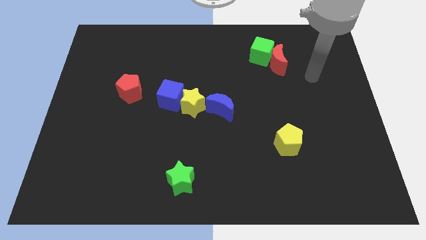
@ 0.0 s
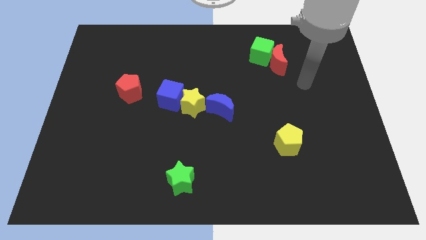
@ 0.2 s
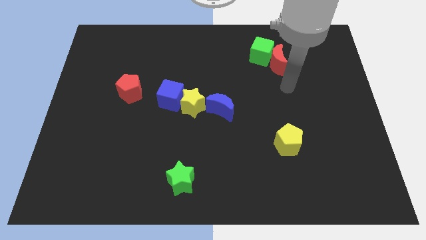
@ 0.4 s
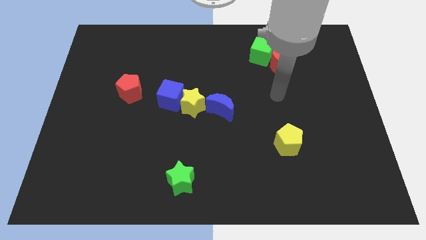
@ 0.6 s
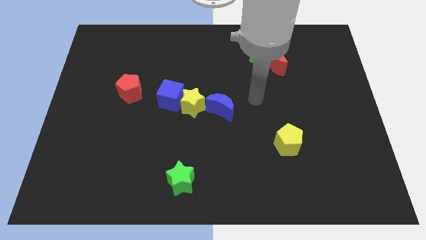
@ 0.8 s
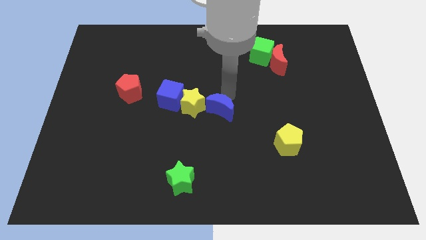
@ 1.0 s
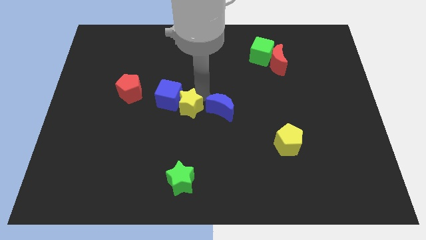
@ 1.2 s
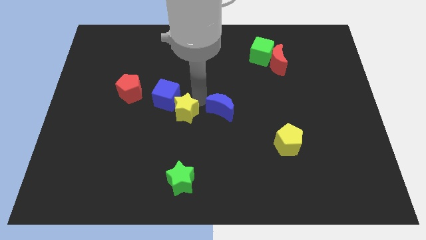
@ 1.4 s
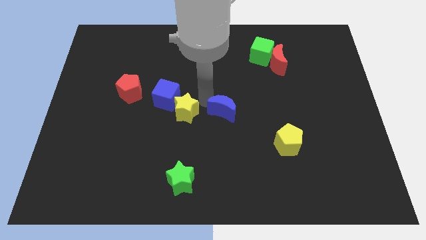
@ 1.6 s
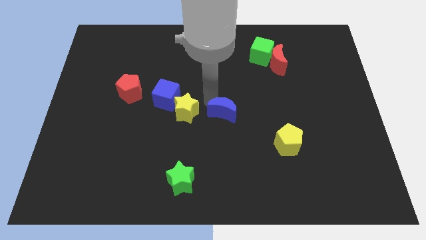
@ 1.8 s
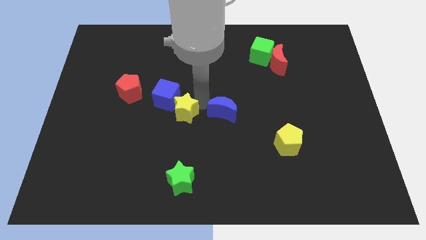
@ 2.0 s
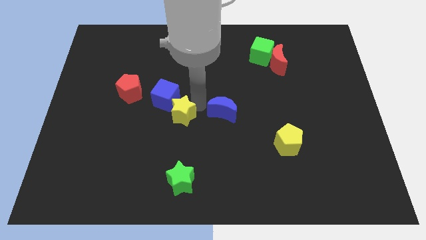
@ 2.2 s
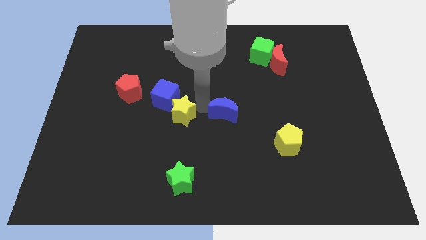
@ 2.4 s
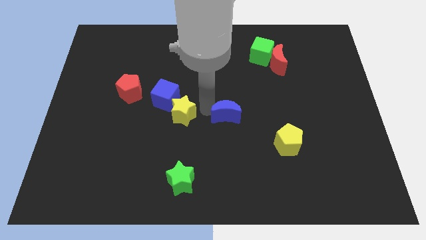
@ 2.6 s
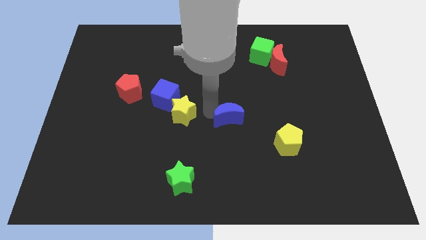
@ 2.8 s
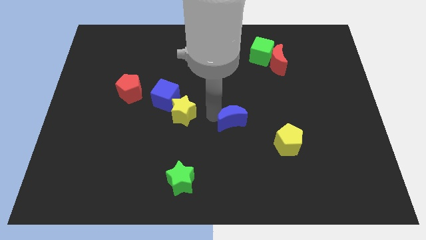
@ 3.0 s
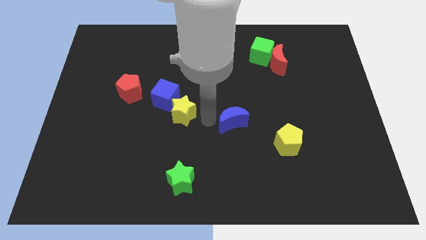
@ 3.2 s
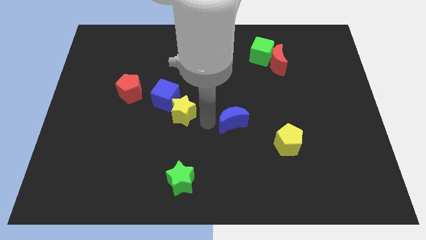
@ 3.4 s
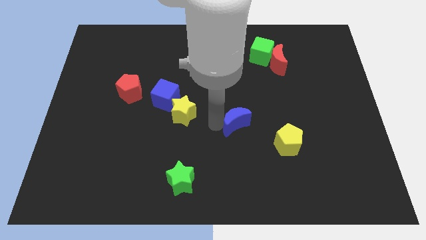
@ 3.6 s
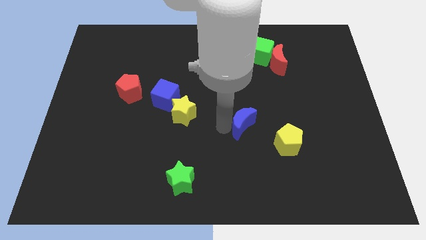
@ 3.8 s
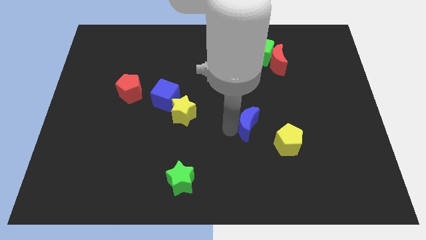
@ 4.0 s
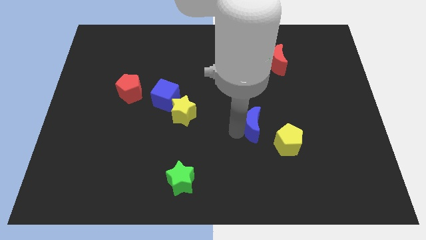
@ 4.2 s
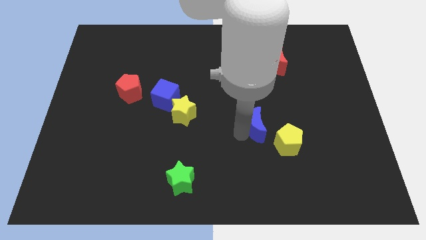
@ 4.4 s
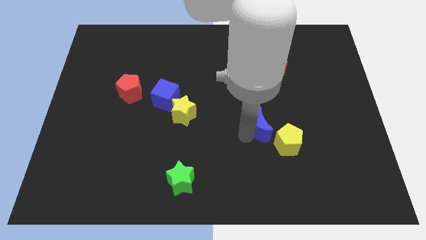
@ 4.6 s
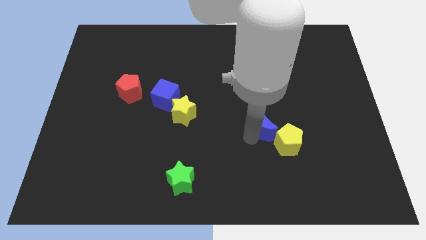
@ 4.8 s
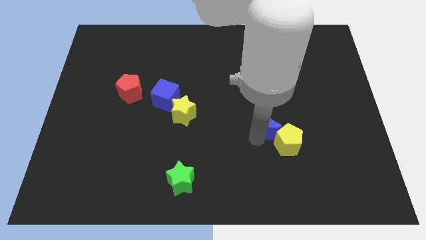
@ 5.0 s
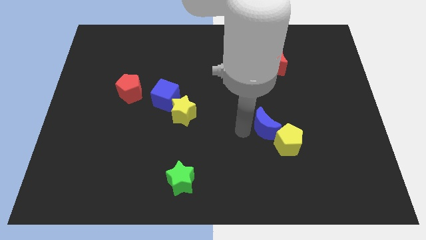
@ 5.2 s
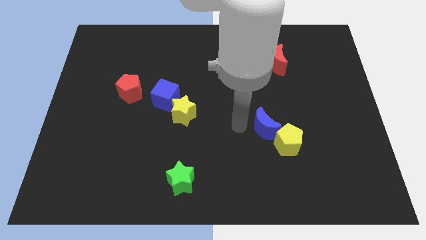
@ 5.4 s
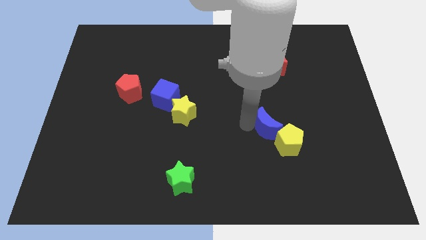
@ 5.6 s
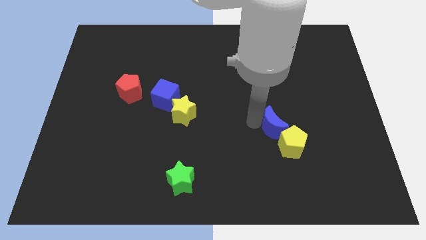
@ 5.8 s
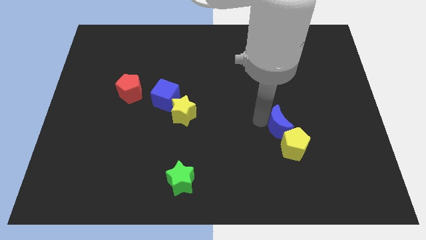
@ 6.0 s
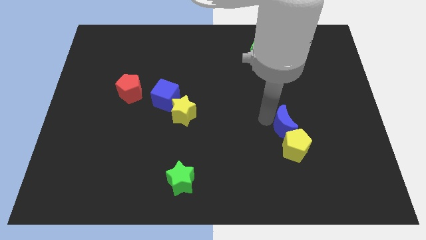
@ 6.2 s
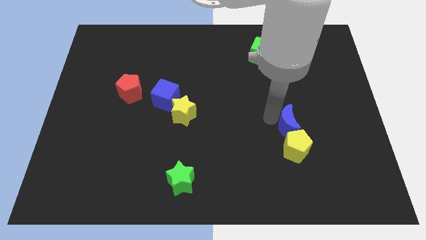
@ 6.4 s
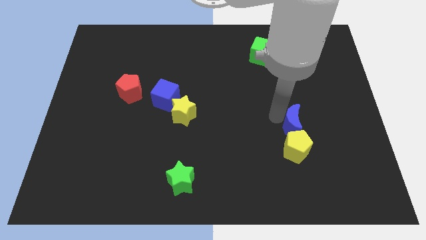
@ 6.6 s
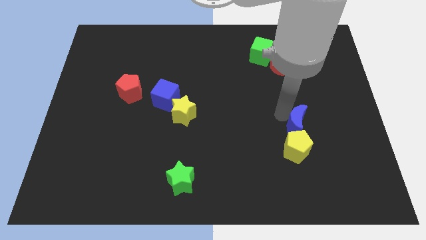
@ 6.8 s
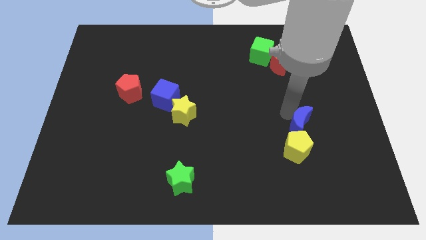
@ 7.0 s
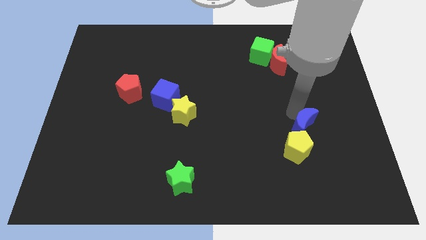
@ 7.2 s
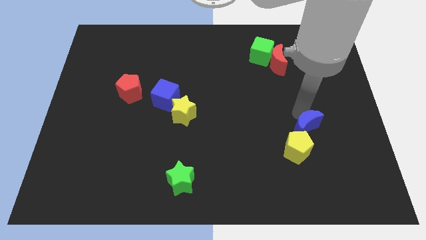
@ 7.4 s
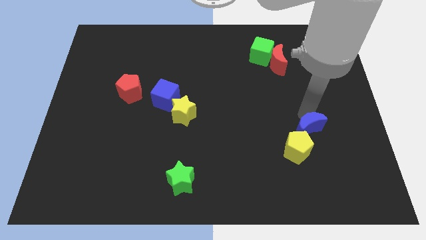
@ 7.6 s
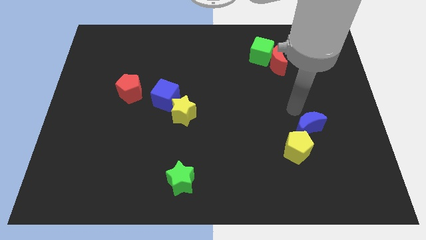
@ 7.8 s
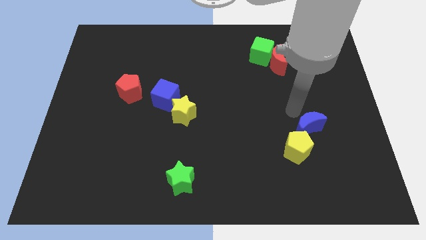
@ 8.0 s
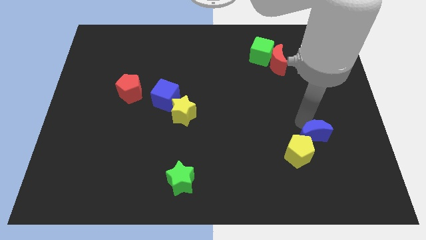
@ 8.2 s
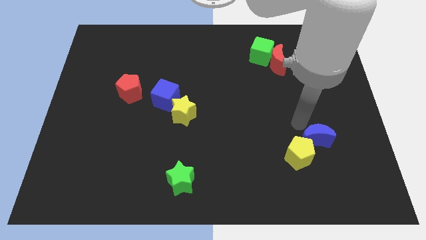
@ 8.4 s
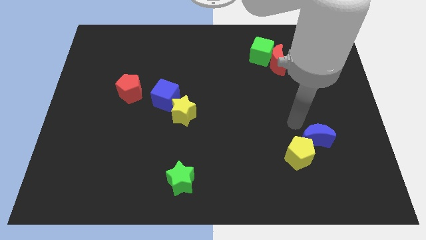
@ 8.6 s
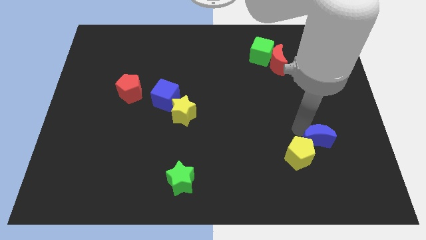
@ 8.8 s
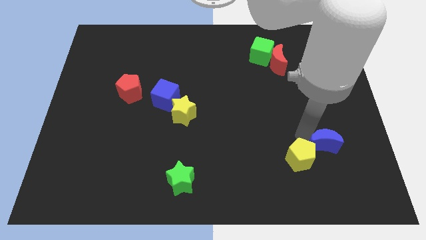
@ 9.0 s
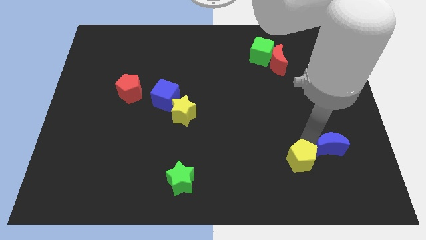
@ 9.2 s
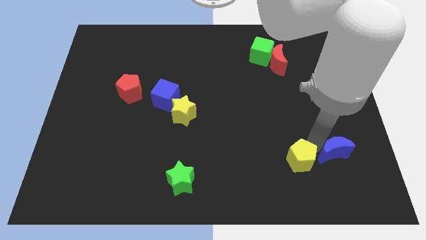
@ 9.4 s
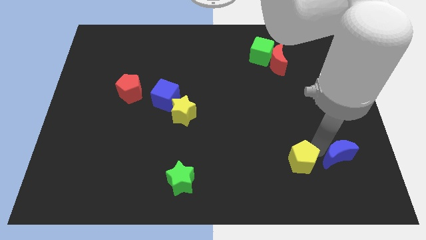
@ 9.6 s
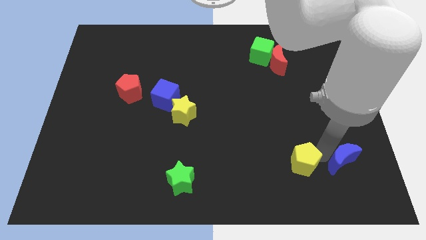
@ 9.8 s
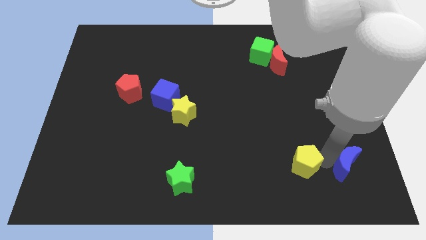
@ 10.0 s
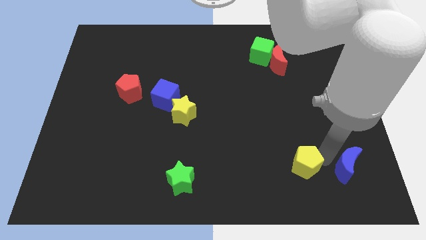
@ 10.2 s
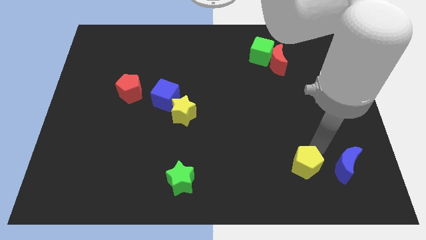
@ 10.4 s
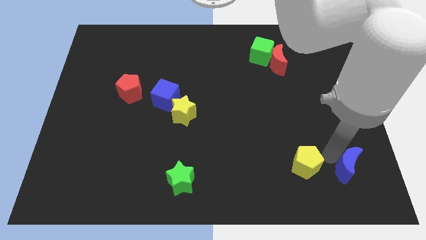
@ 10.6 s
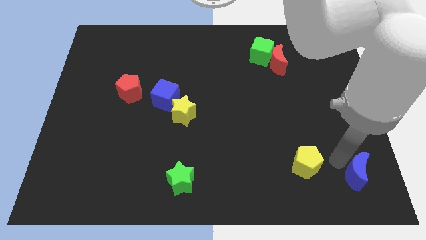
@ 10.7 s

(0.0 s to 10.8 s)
push the blue moon to the bottom right
